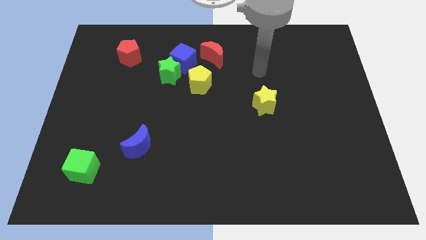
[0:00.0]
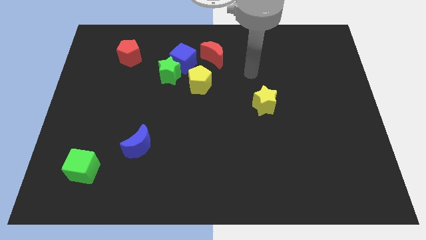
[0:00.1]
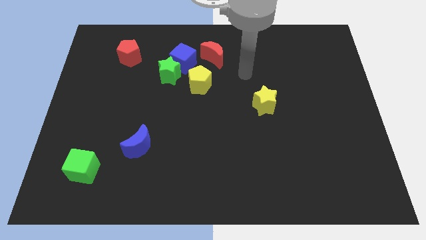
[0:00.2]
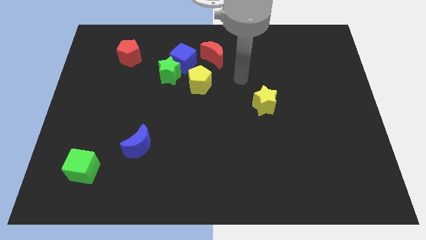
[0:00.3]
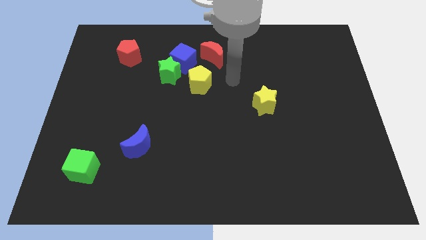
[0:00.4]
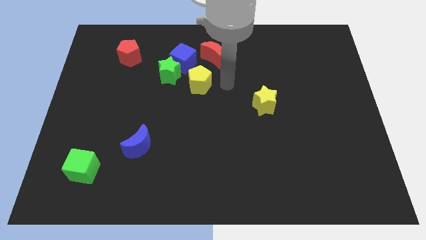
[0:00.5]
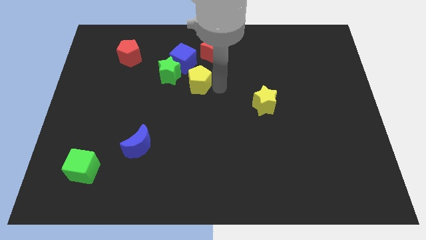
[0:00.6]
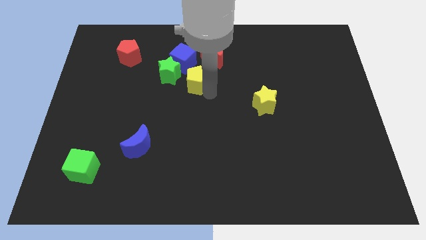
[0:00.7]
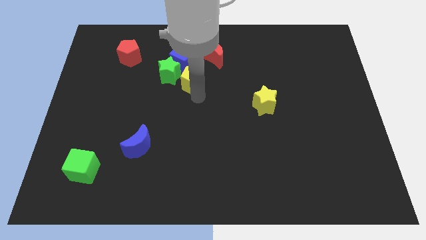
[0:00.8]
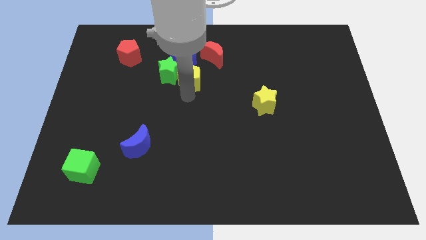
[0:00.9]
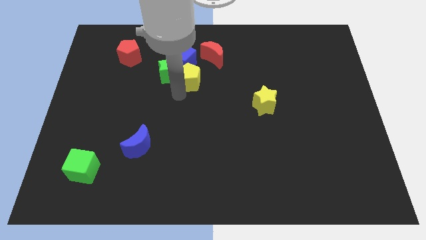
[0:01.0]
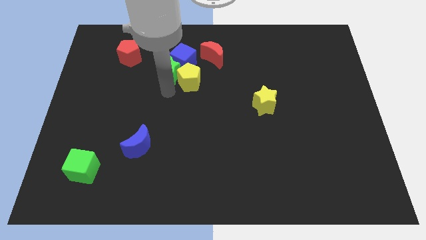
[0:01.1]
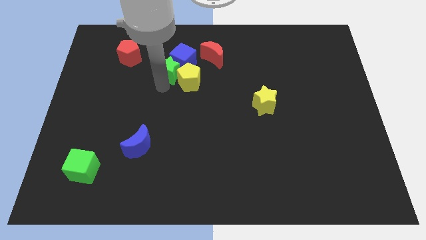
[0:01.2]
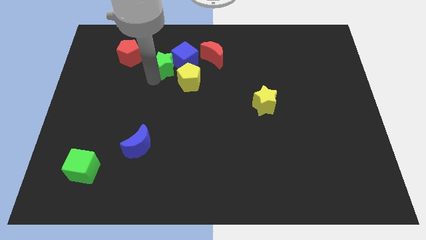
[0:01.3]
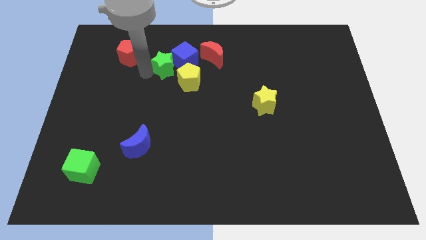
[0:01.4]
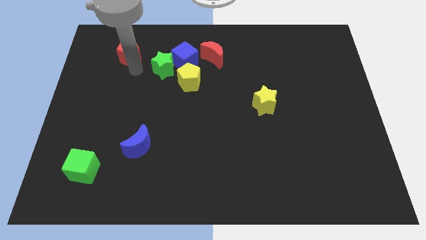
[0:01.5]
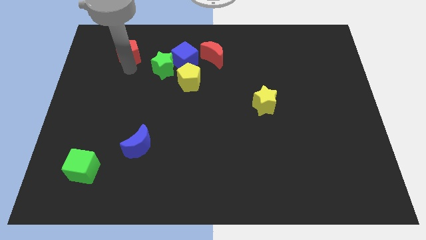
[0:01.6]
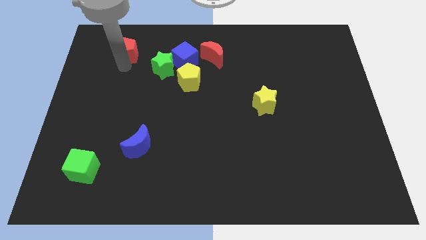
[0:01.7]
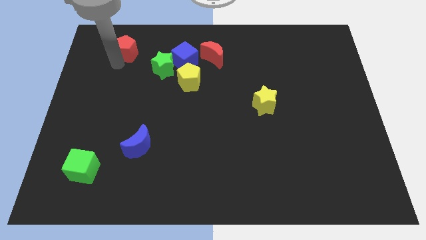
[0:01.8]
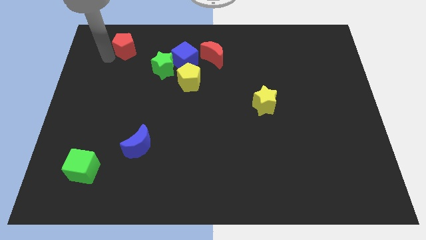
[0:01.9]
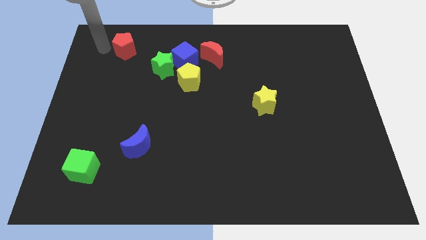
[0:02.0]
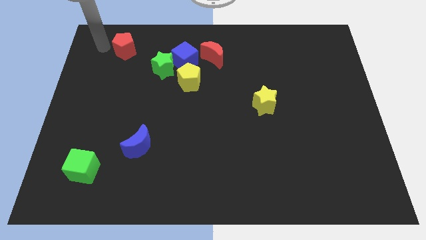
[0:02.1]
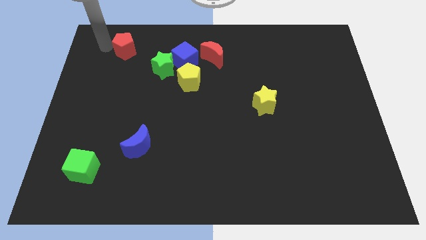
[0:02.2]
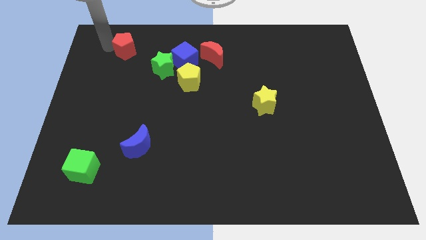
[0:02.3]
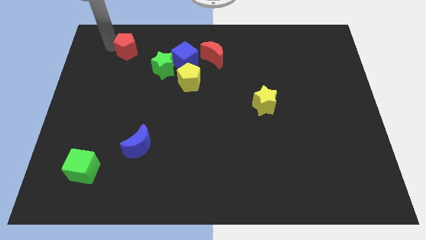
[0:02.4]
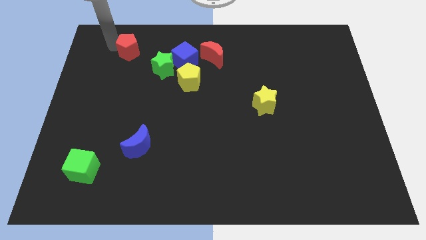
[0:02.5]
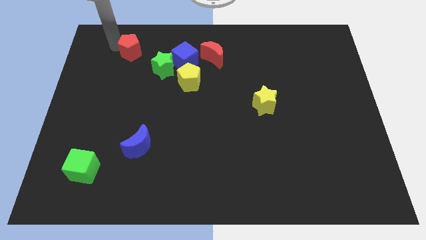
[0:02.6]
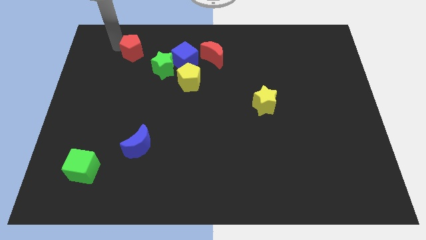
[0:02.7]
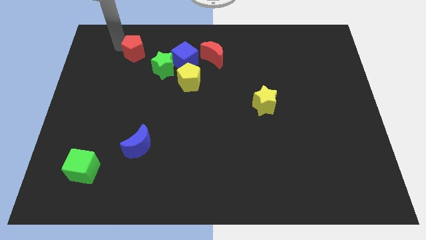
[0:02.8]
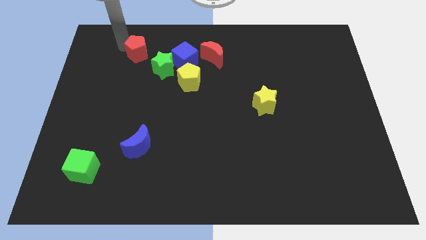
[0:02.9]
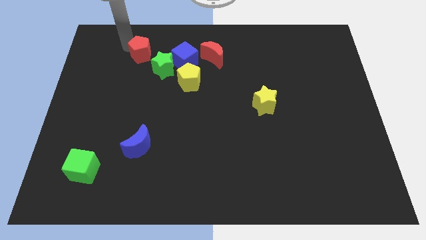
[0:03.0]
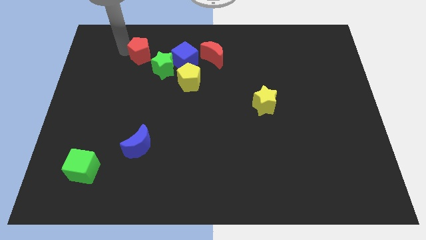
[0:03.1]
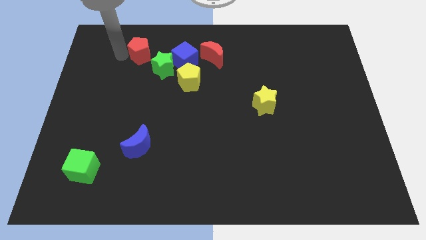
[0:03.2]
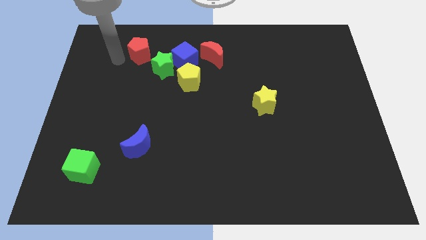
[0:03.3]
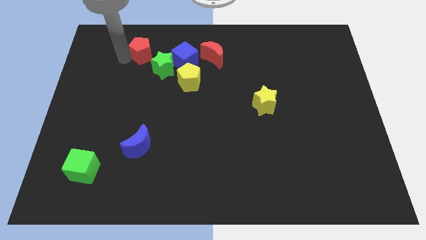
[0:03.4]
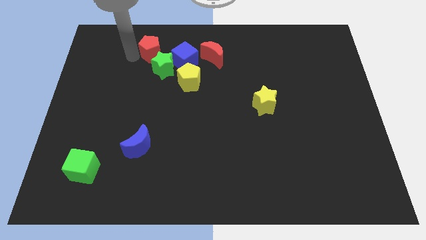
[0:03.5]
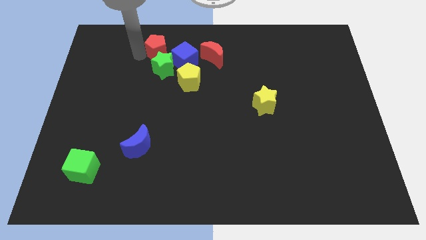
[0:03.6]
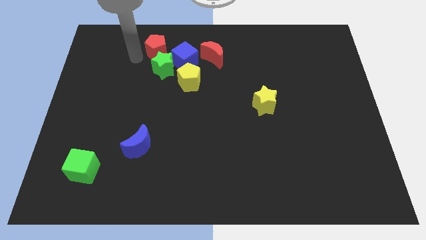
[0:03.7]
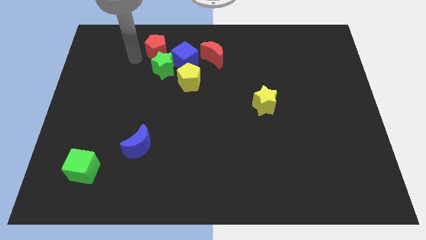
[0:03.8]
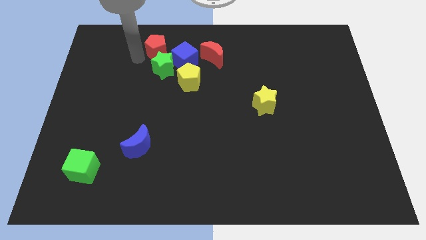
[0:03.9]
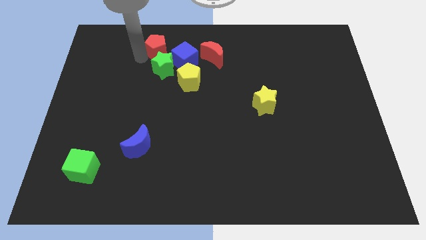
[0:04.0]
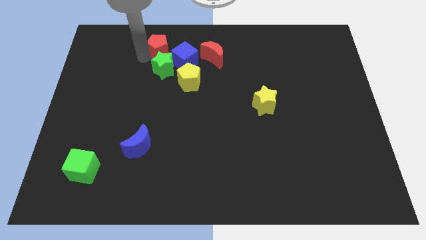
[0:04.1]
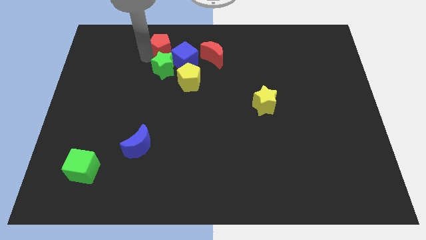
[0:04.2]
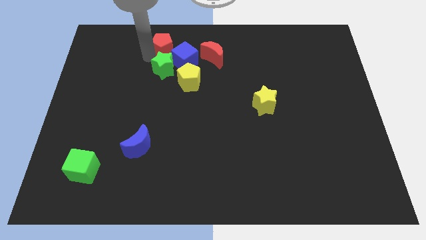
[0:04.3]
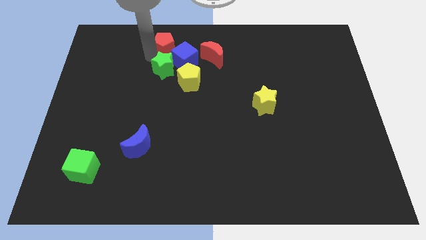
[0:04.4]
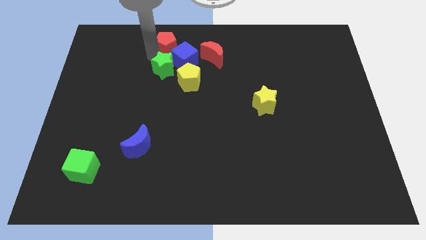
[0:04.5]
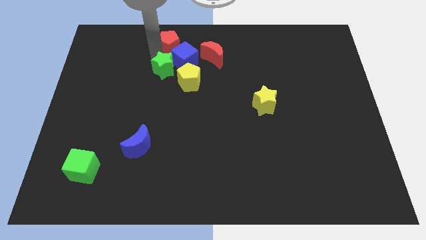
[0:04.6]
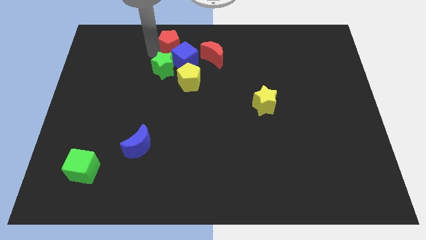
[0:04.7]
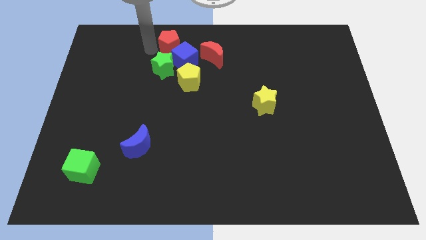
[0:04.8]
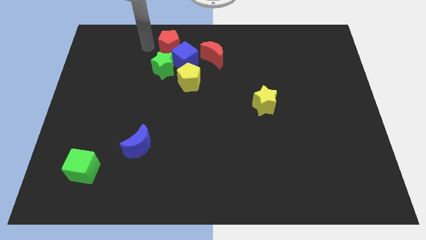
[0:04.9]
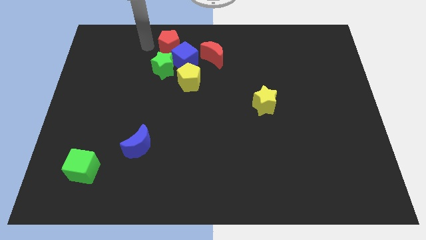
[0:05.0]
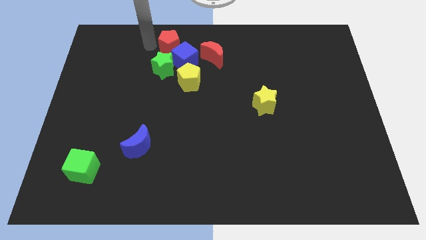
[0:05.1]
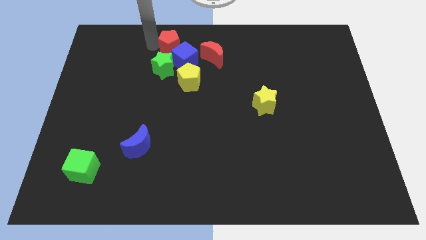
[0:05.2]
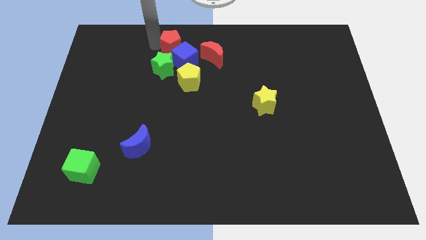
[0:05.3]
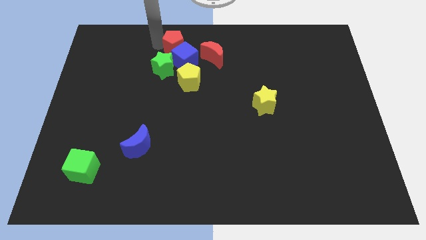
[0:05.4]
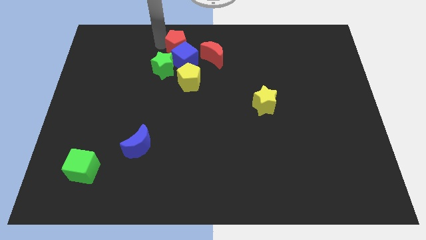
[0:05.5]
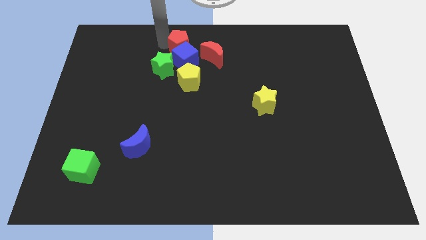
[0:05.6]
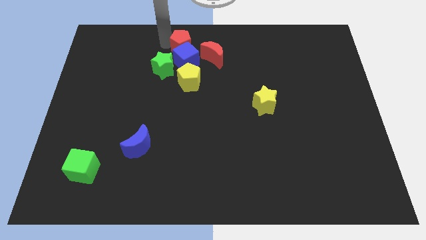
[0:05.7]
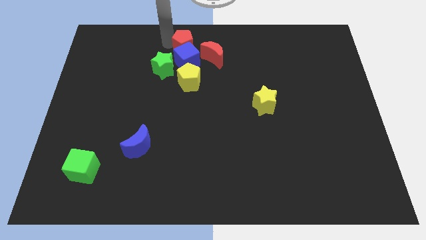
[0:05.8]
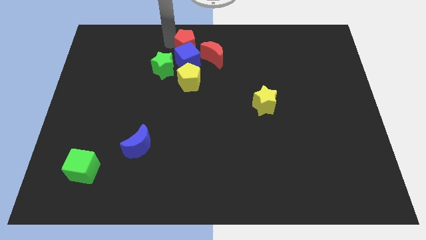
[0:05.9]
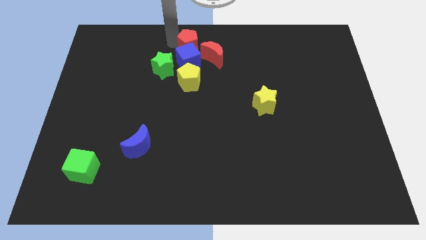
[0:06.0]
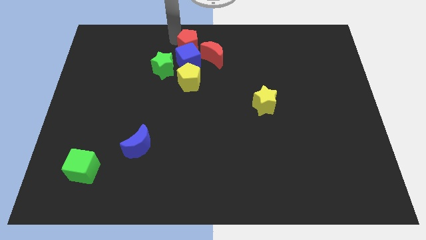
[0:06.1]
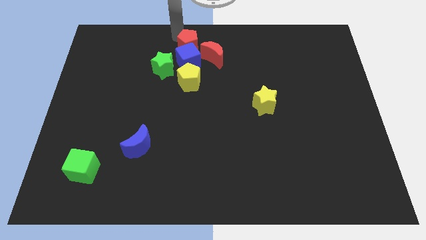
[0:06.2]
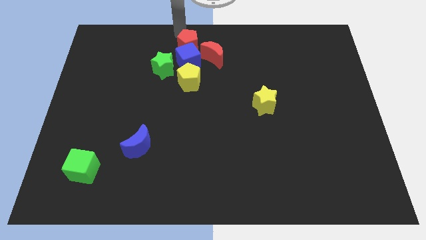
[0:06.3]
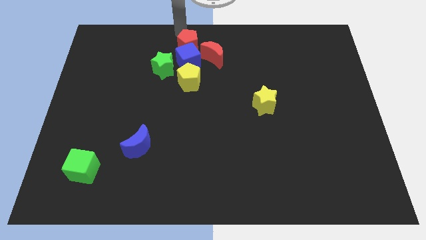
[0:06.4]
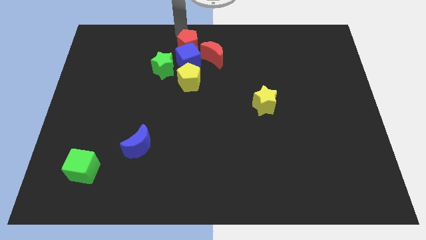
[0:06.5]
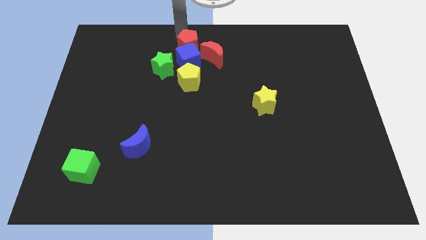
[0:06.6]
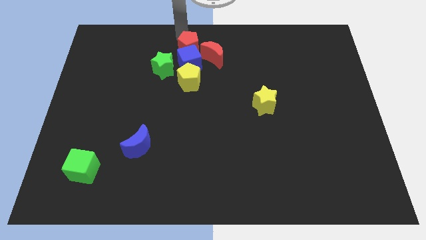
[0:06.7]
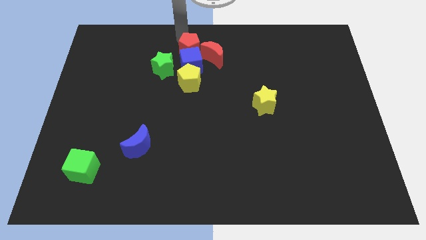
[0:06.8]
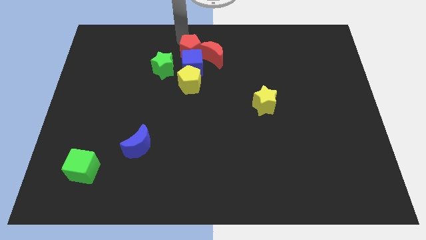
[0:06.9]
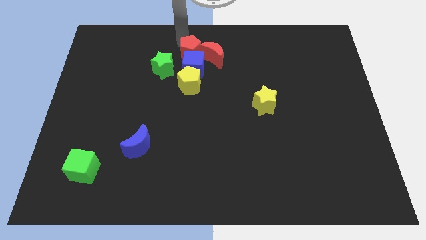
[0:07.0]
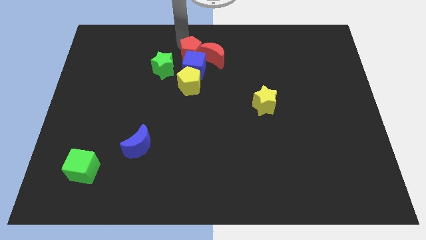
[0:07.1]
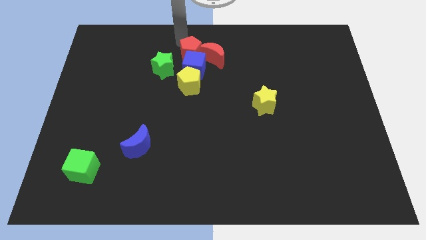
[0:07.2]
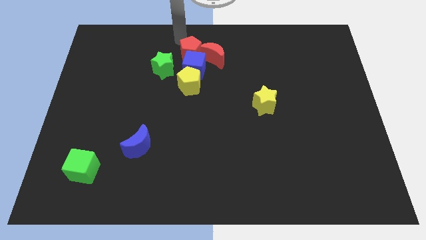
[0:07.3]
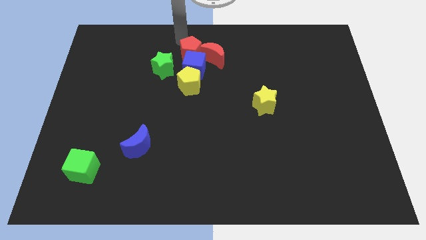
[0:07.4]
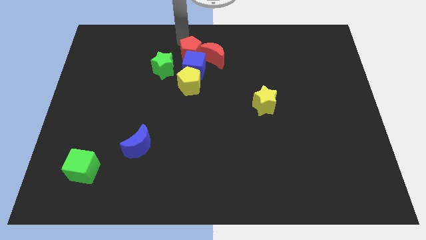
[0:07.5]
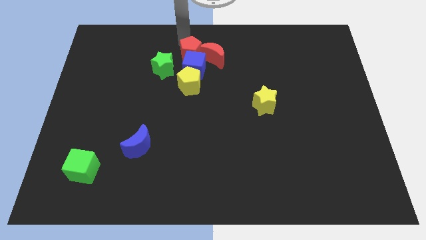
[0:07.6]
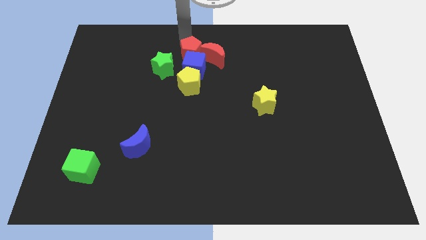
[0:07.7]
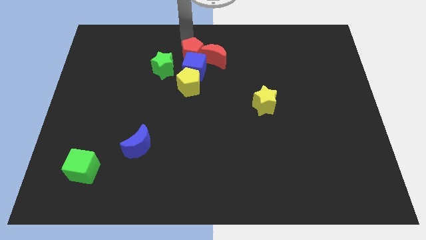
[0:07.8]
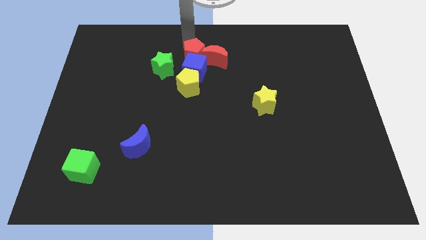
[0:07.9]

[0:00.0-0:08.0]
move the red pentagon just right of the green star
